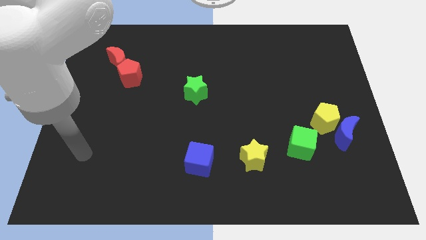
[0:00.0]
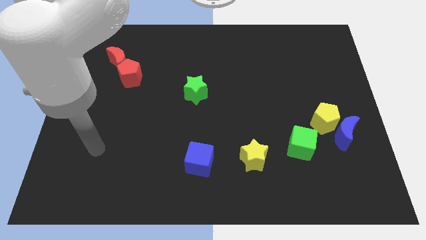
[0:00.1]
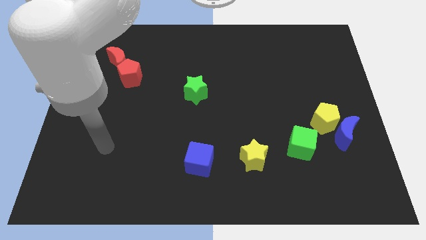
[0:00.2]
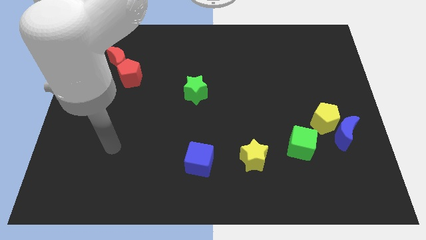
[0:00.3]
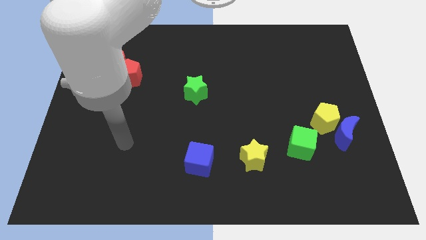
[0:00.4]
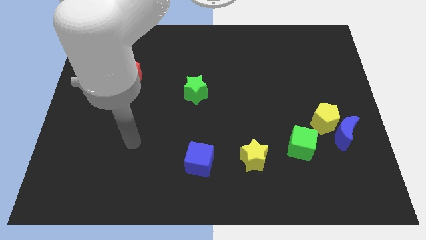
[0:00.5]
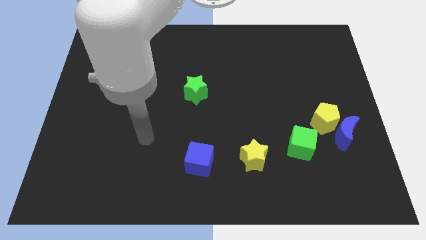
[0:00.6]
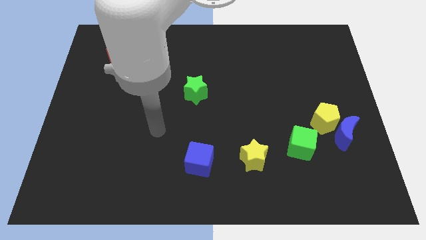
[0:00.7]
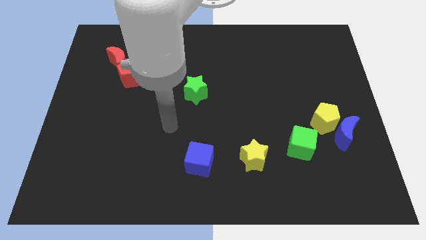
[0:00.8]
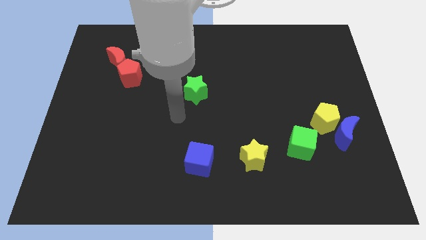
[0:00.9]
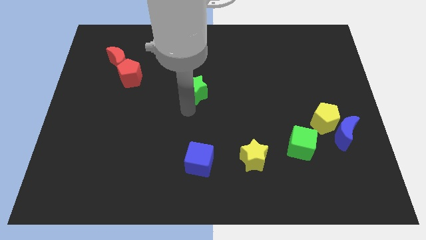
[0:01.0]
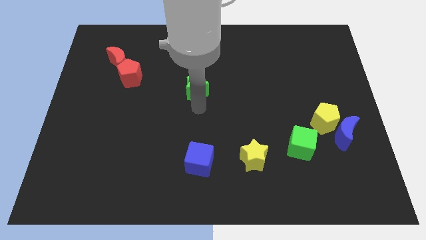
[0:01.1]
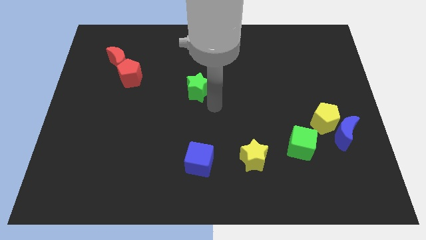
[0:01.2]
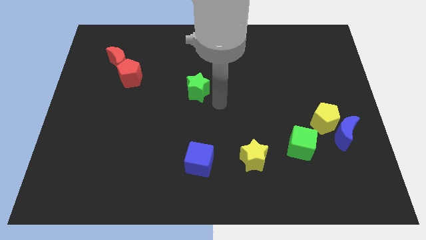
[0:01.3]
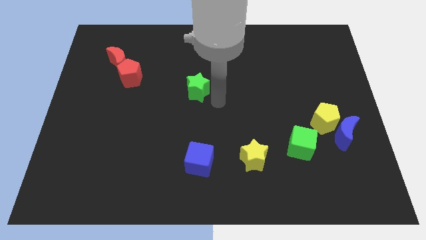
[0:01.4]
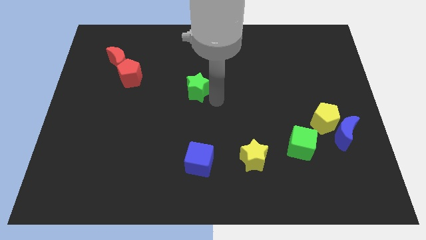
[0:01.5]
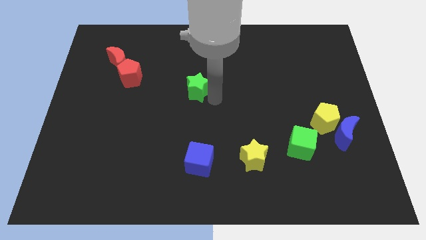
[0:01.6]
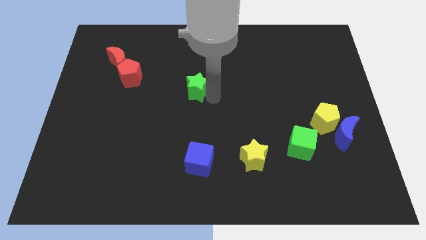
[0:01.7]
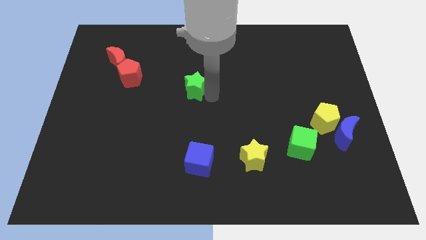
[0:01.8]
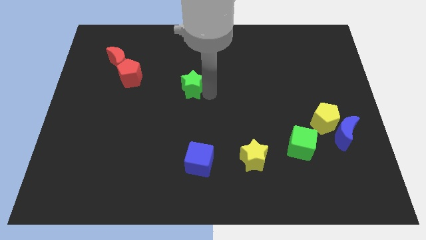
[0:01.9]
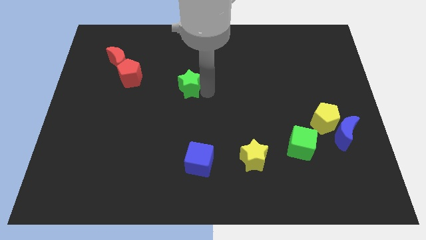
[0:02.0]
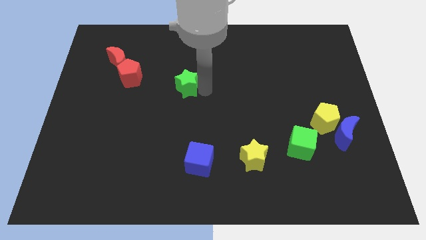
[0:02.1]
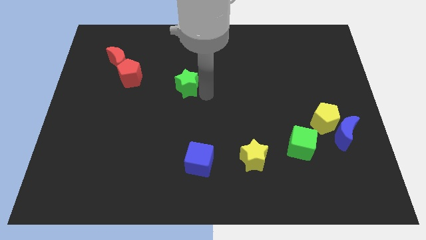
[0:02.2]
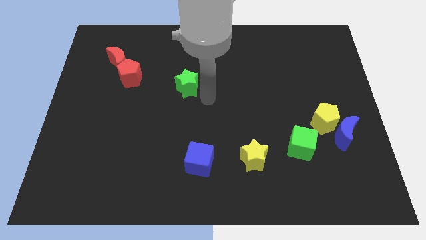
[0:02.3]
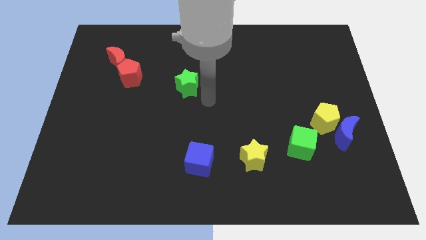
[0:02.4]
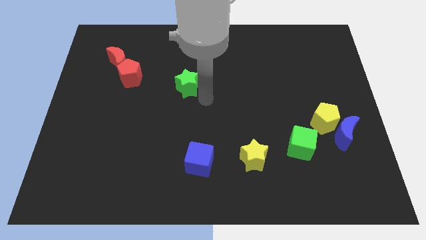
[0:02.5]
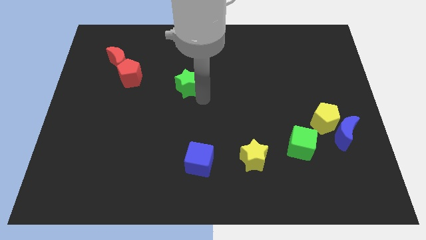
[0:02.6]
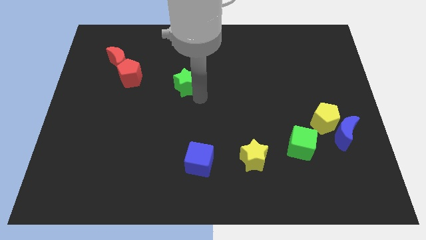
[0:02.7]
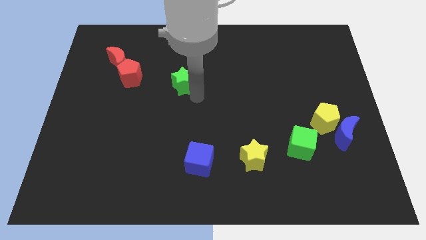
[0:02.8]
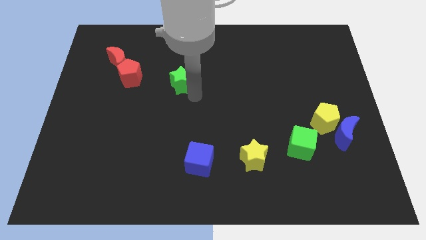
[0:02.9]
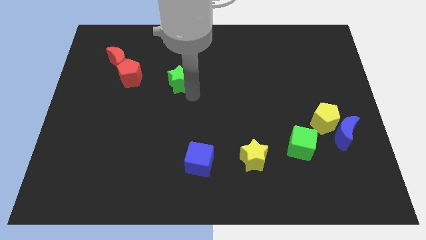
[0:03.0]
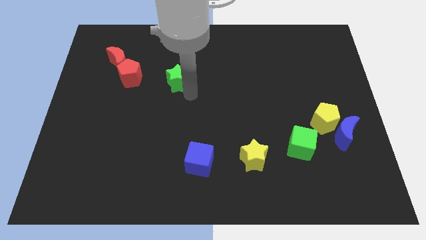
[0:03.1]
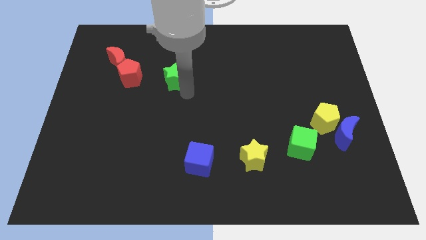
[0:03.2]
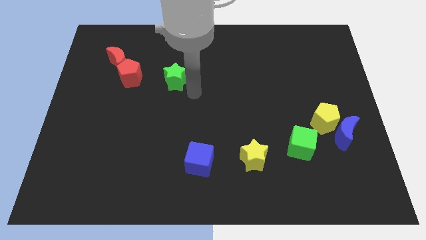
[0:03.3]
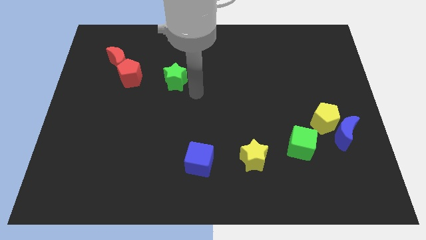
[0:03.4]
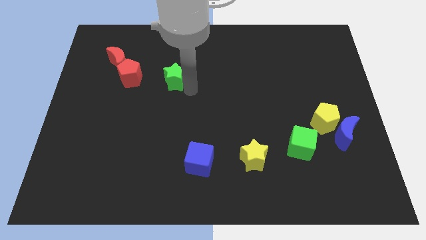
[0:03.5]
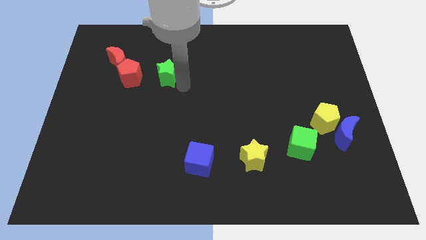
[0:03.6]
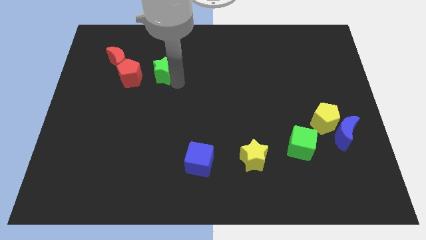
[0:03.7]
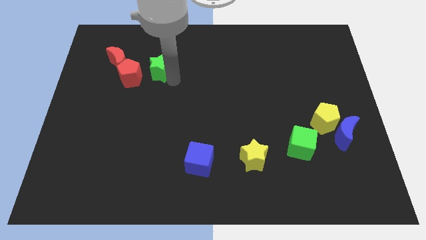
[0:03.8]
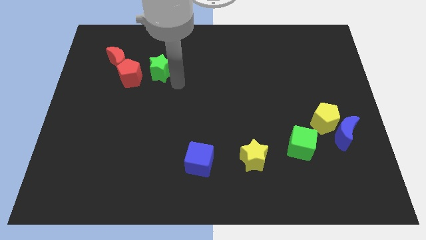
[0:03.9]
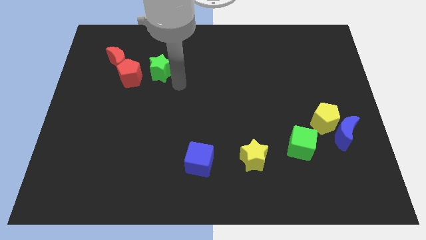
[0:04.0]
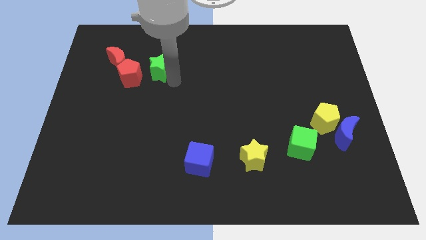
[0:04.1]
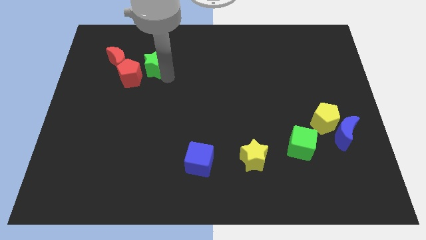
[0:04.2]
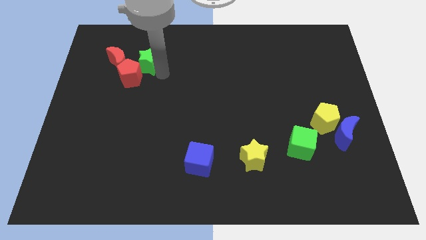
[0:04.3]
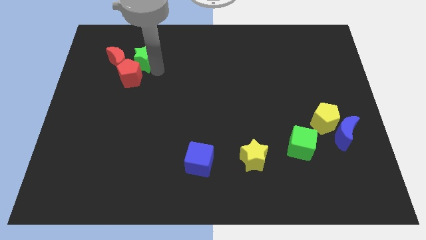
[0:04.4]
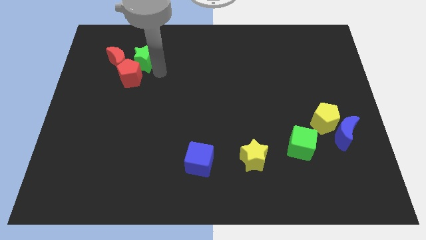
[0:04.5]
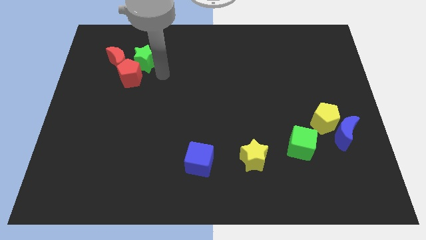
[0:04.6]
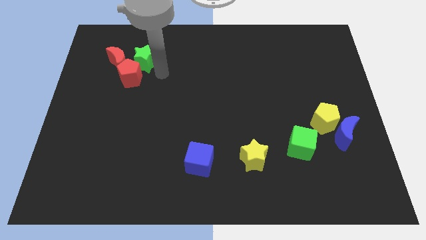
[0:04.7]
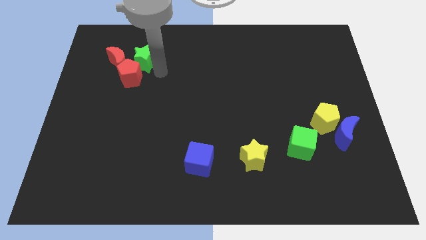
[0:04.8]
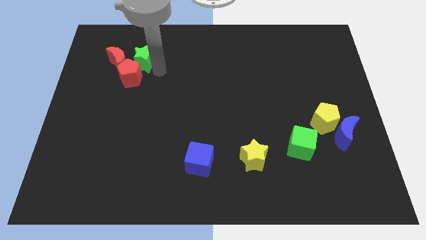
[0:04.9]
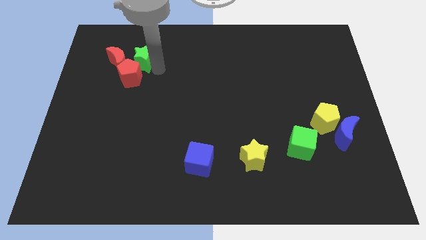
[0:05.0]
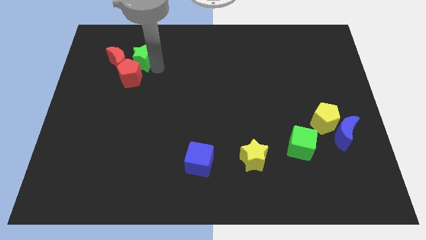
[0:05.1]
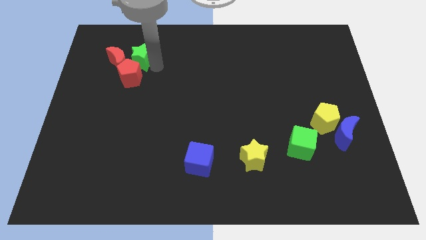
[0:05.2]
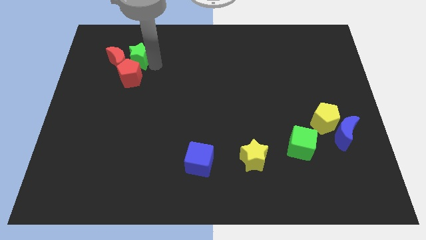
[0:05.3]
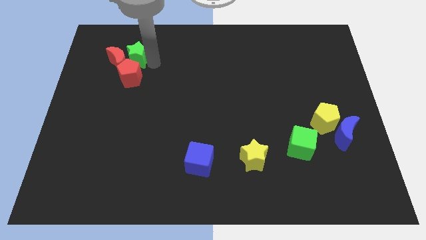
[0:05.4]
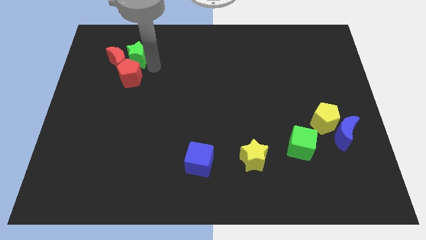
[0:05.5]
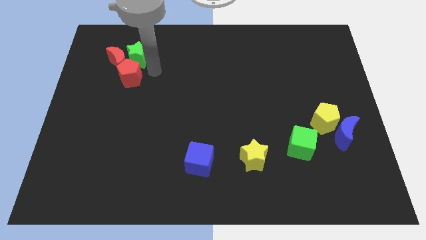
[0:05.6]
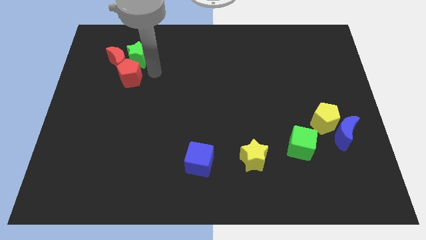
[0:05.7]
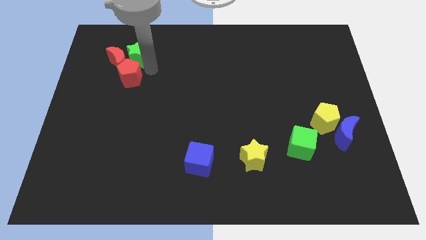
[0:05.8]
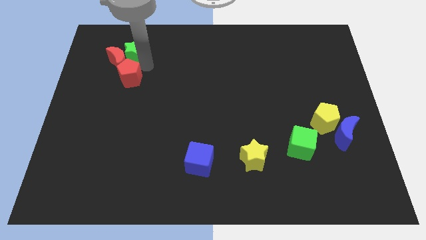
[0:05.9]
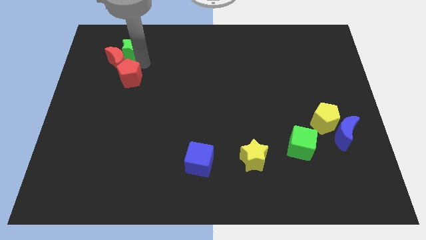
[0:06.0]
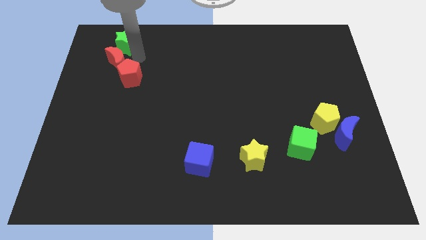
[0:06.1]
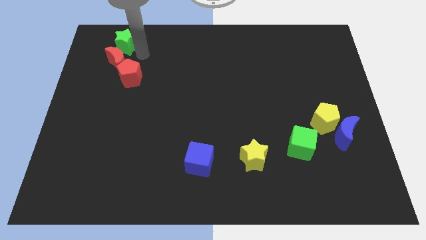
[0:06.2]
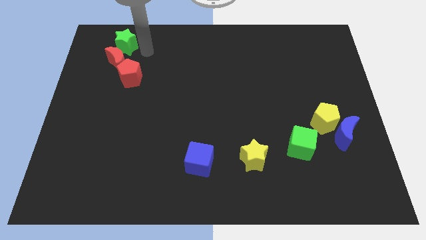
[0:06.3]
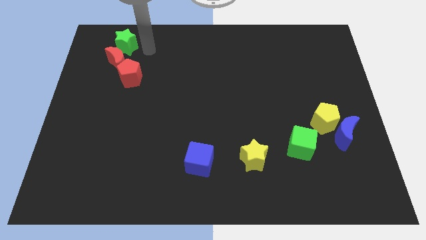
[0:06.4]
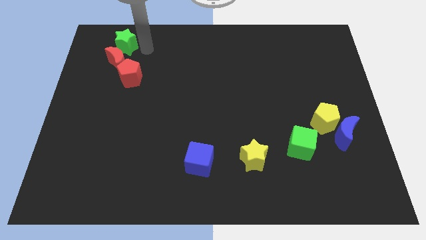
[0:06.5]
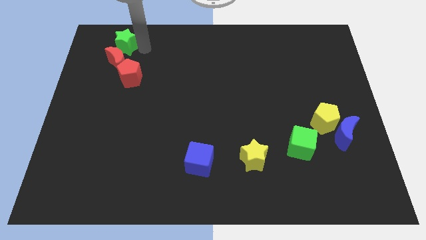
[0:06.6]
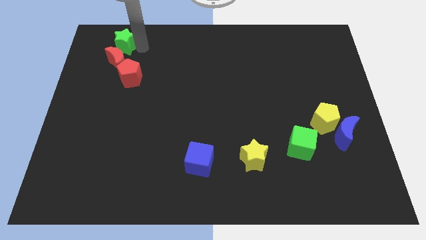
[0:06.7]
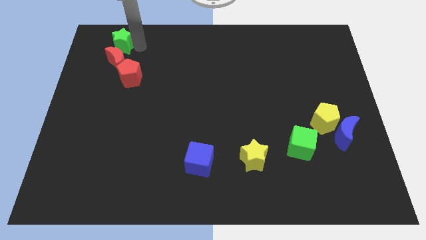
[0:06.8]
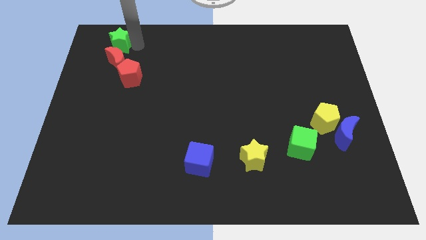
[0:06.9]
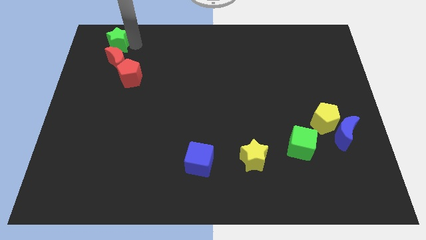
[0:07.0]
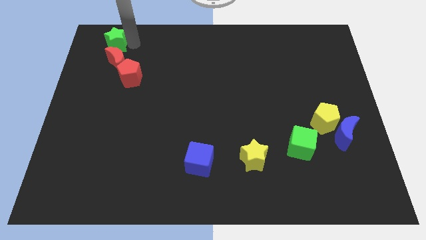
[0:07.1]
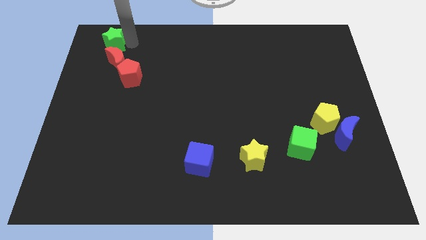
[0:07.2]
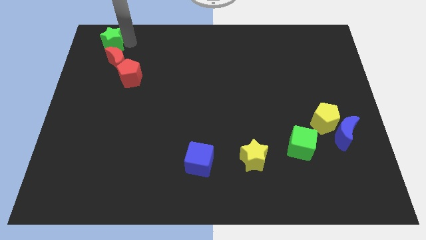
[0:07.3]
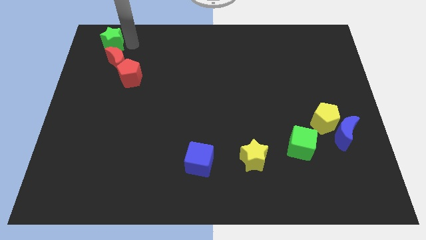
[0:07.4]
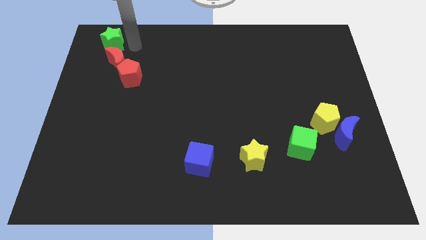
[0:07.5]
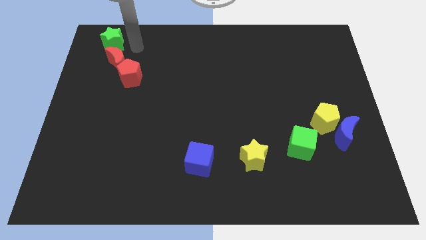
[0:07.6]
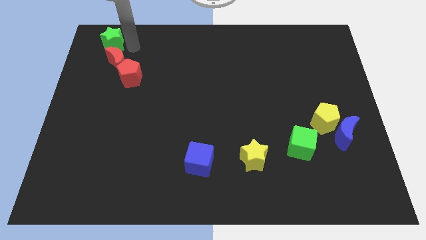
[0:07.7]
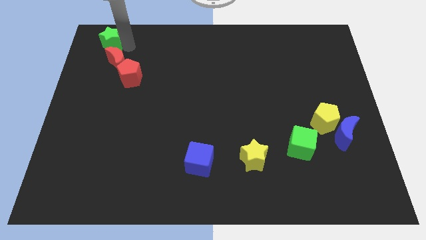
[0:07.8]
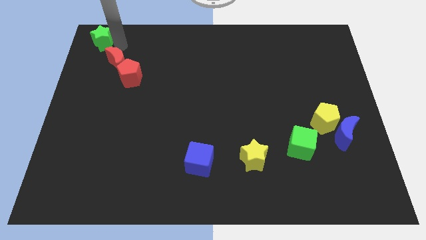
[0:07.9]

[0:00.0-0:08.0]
move the green star to the top left of the board
